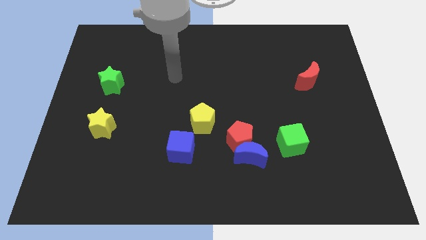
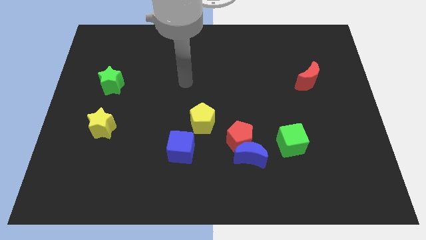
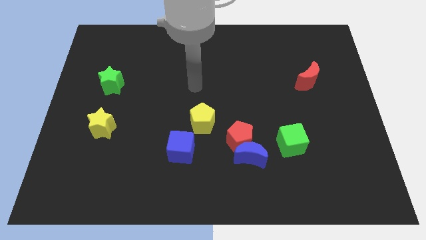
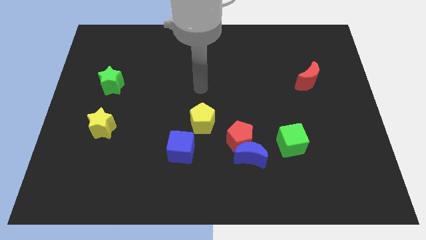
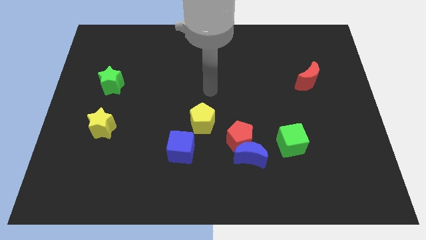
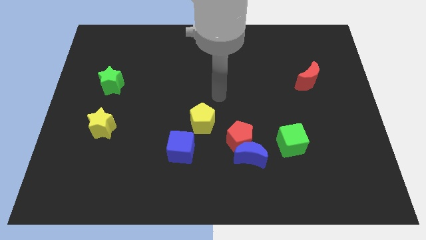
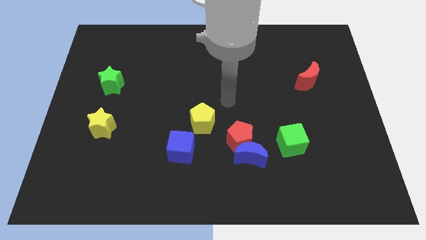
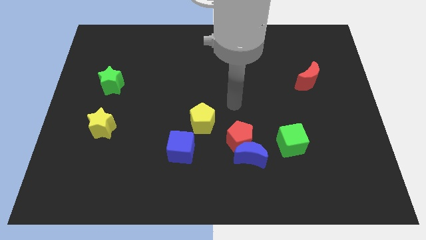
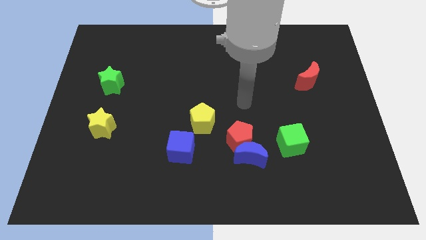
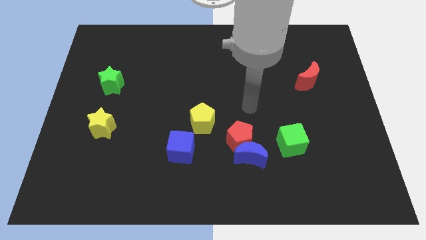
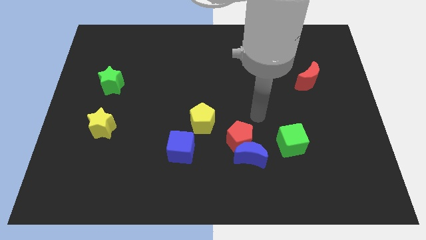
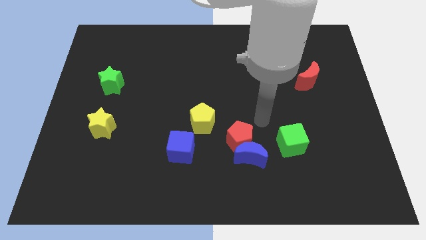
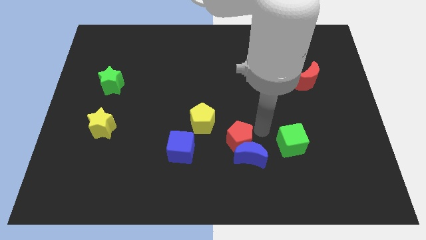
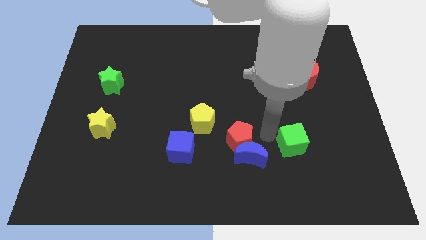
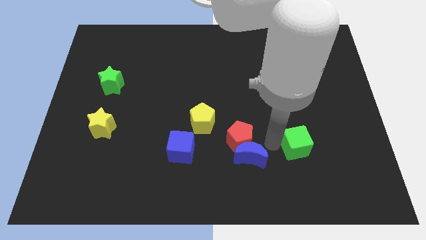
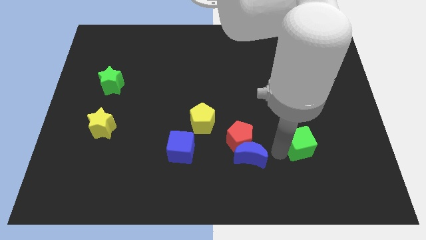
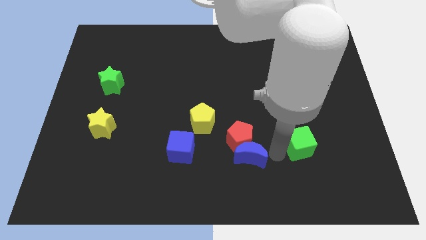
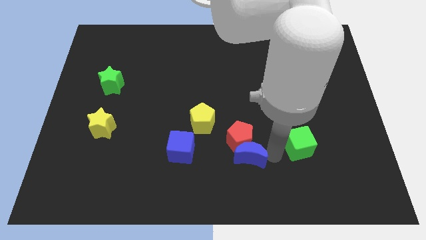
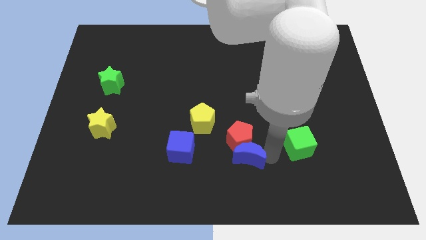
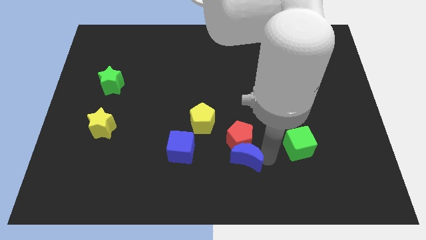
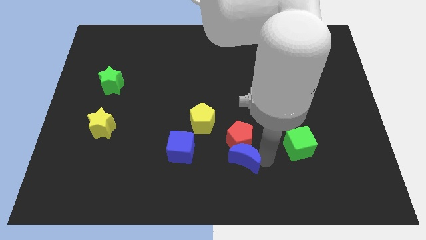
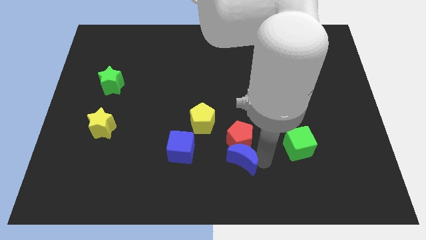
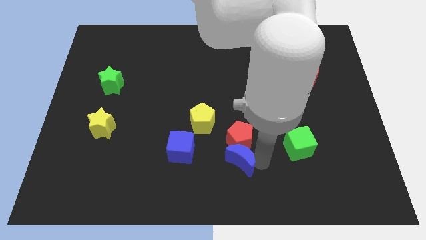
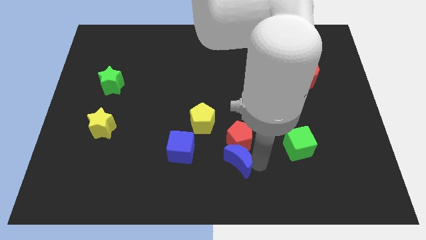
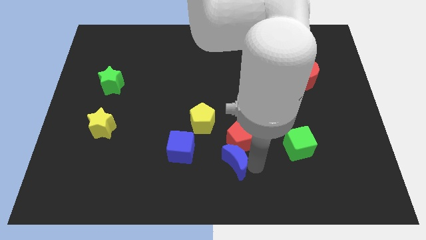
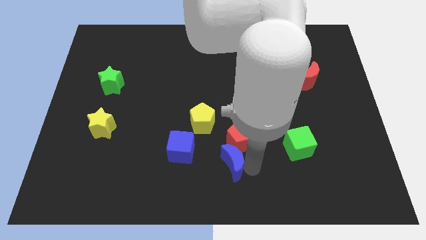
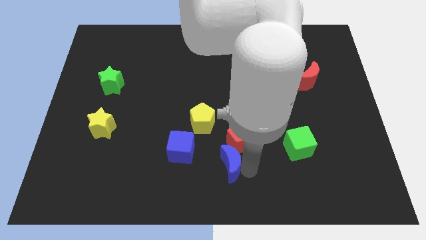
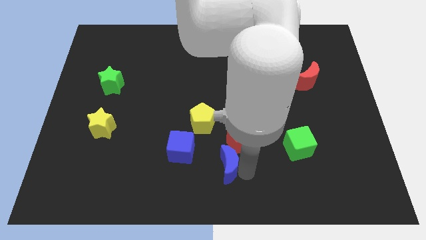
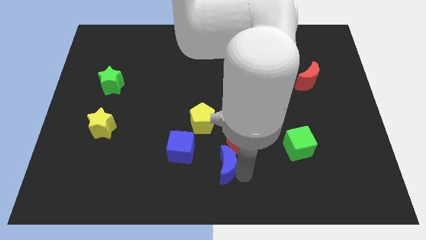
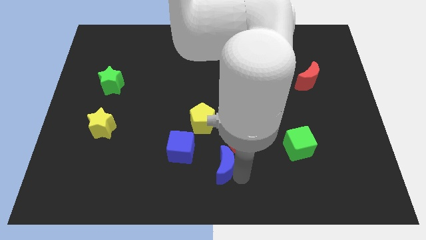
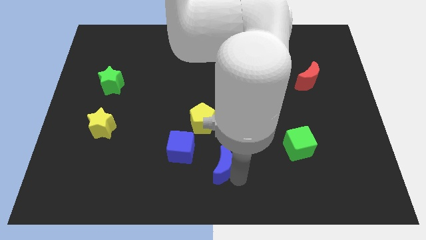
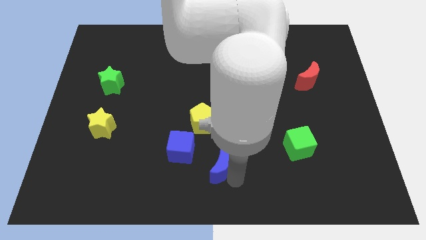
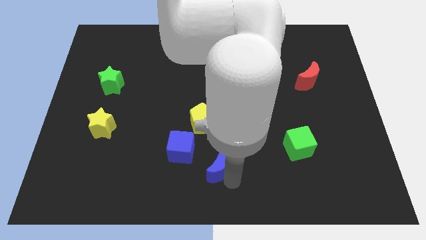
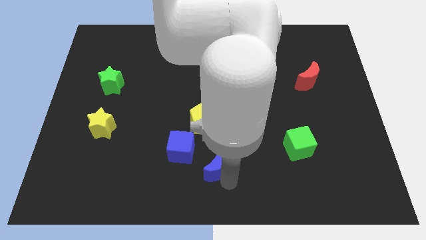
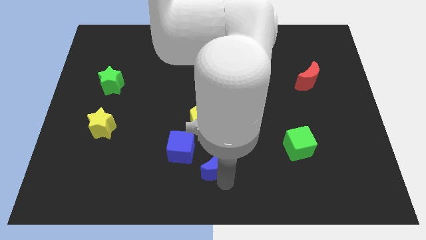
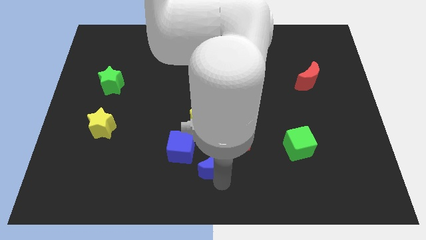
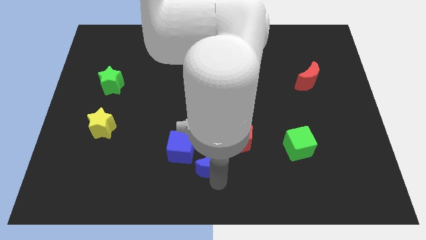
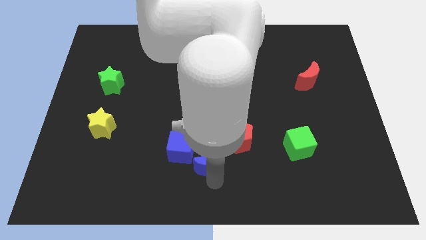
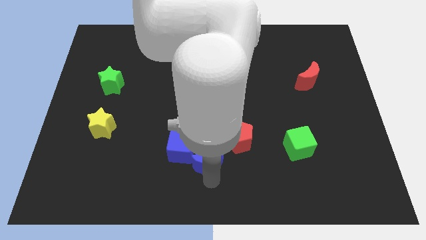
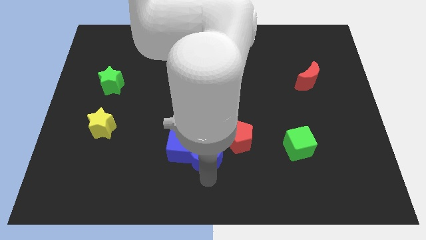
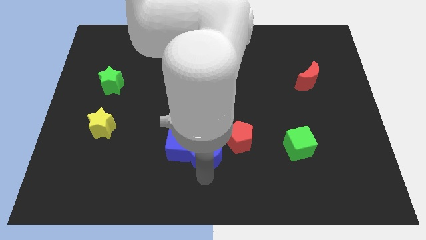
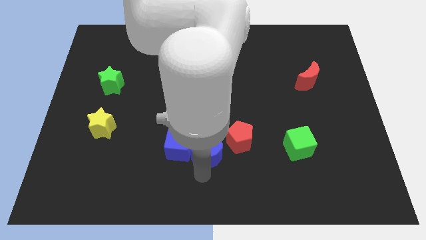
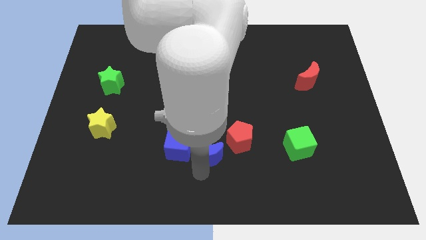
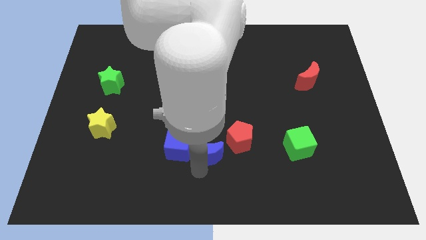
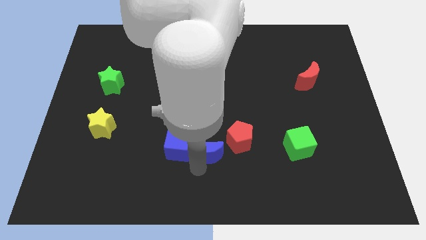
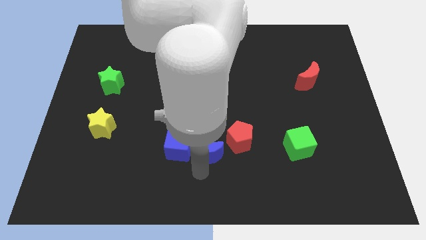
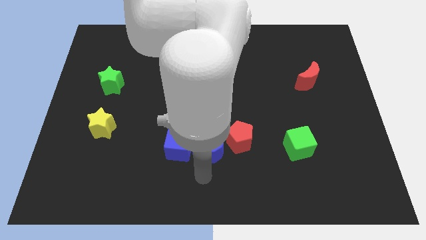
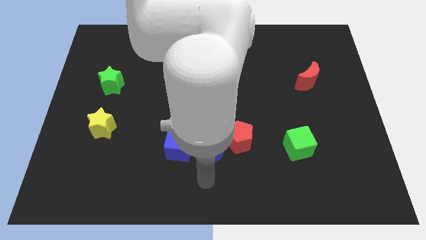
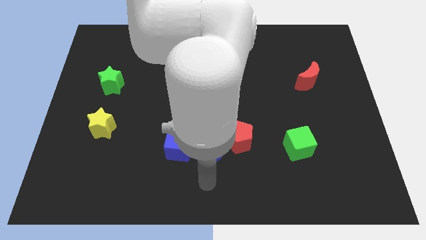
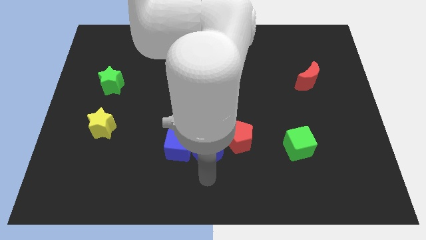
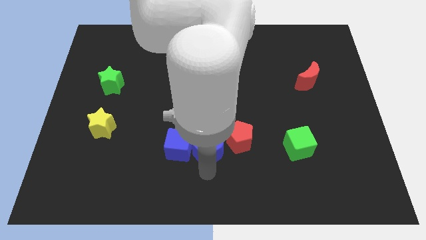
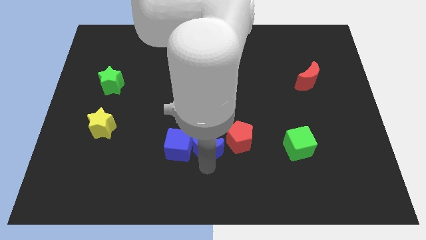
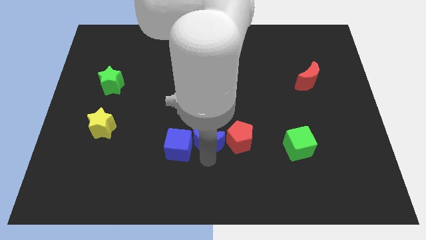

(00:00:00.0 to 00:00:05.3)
push the blue moon close to the yellow pentagon

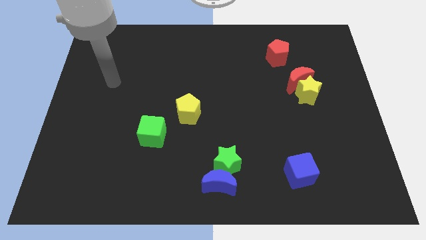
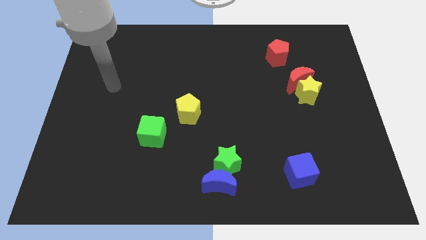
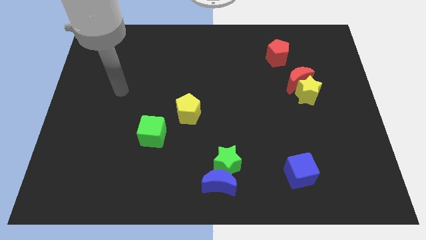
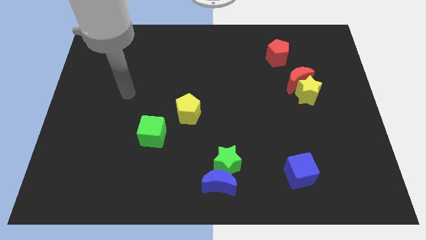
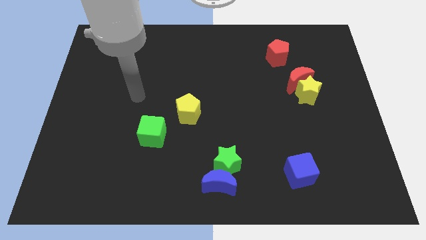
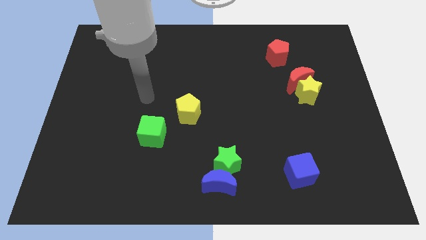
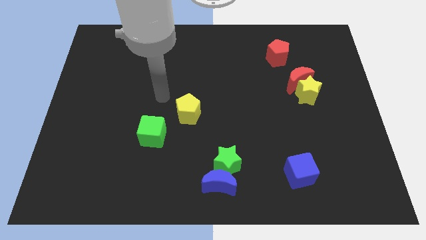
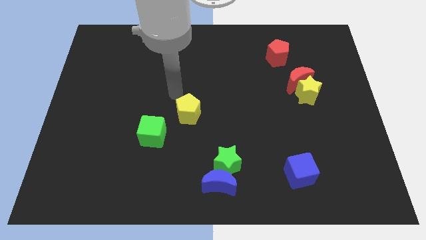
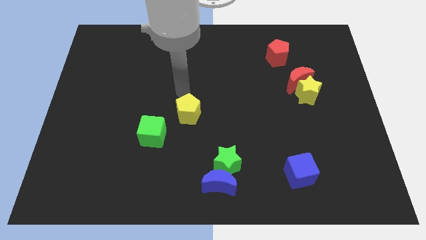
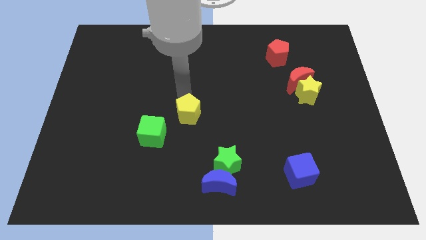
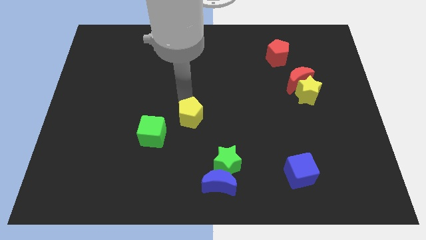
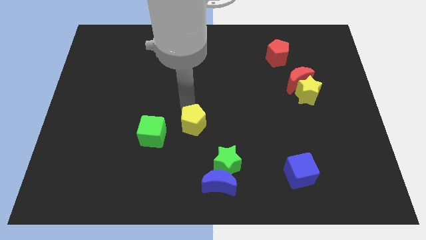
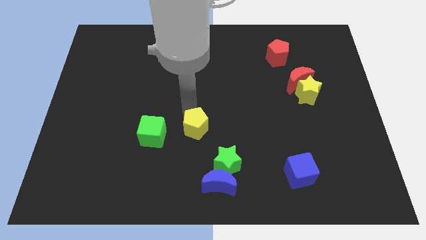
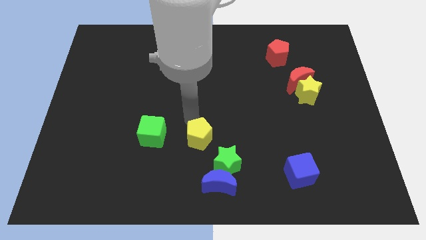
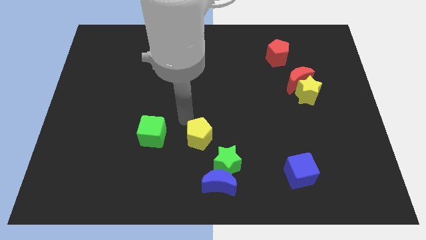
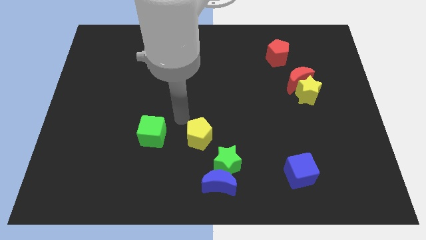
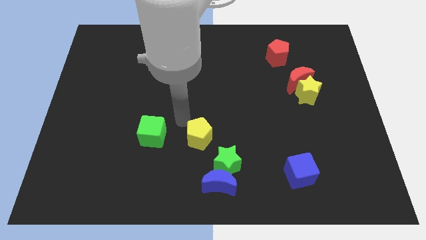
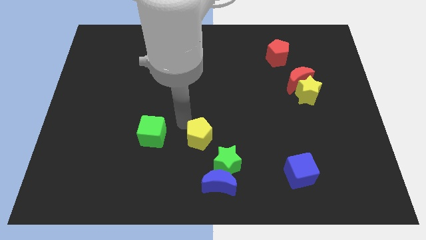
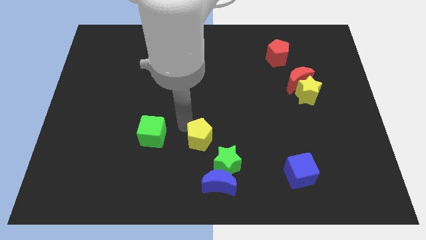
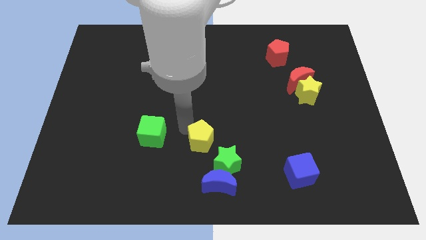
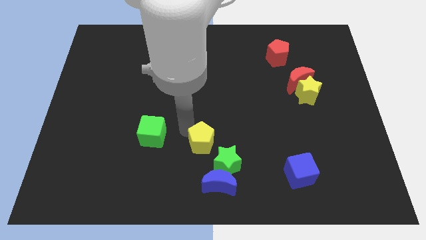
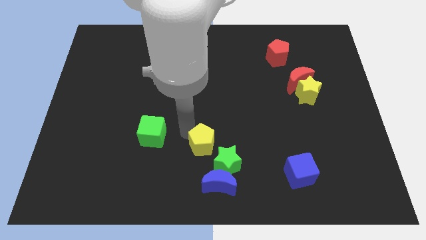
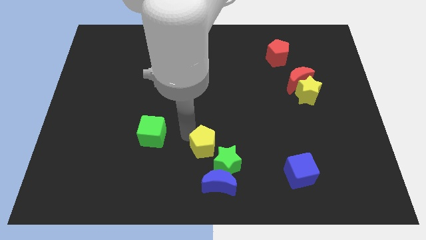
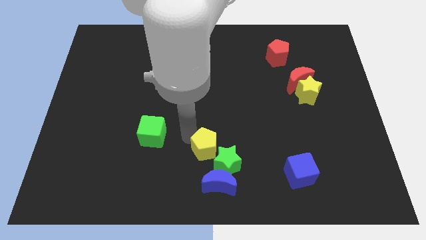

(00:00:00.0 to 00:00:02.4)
move the yellow pentagon to the green star
